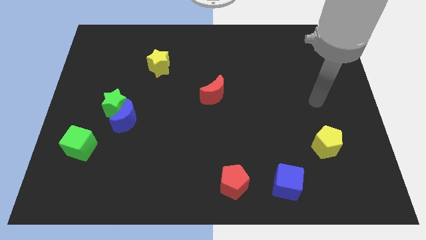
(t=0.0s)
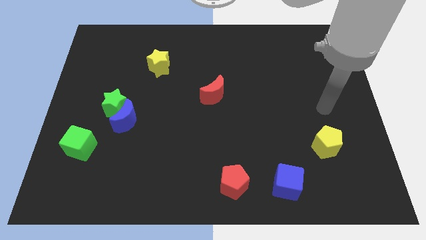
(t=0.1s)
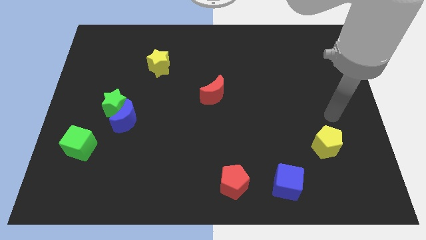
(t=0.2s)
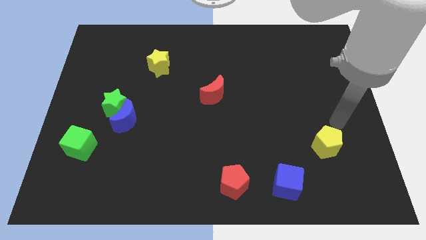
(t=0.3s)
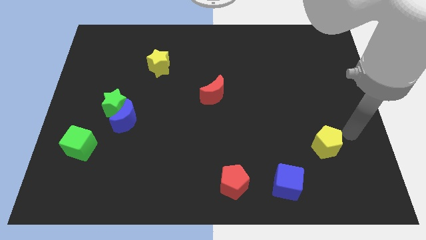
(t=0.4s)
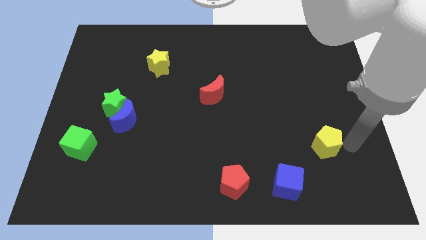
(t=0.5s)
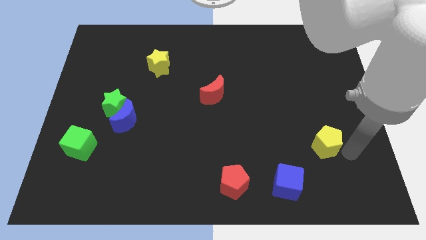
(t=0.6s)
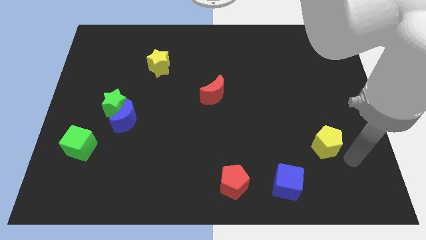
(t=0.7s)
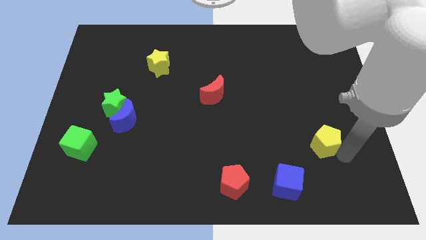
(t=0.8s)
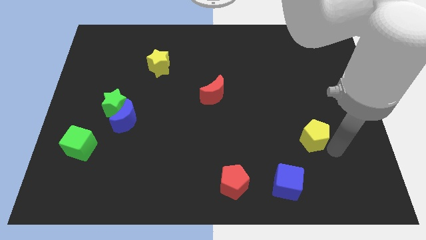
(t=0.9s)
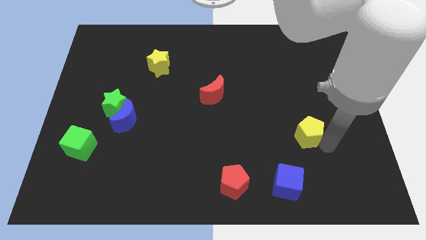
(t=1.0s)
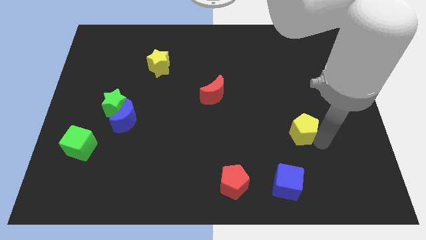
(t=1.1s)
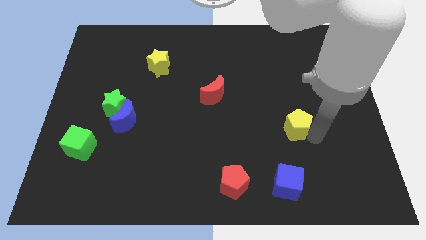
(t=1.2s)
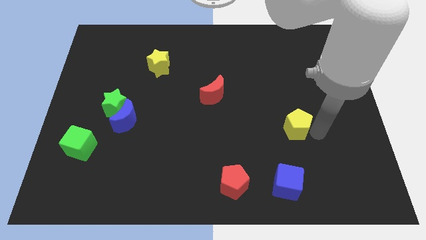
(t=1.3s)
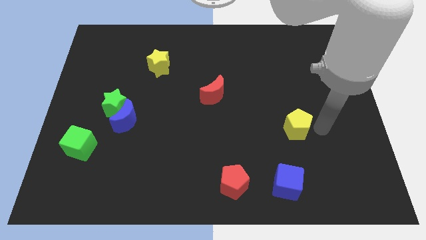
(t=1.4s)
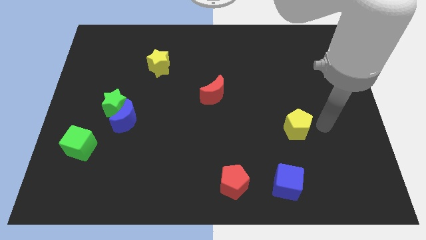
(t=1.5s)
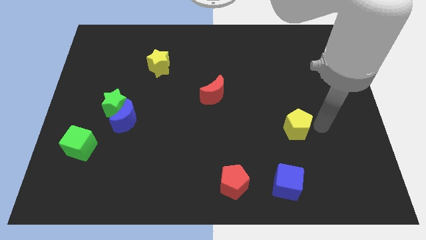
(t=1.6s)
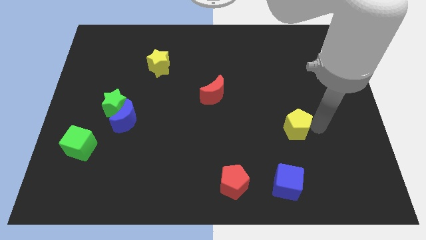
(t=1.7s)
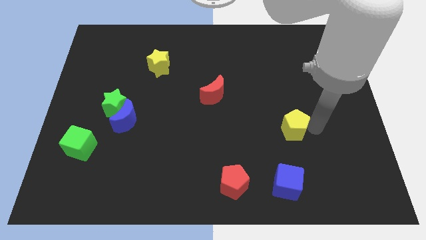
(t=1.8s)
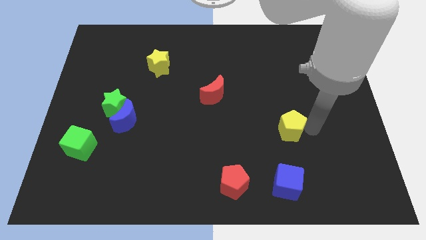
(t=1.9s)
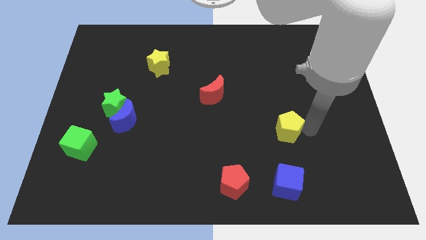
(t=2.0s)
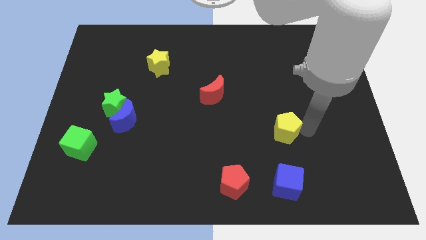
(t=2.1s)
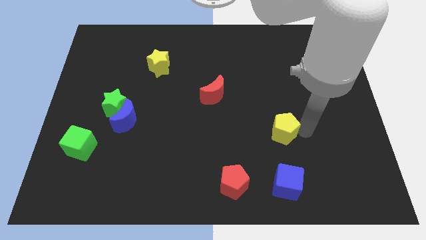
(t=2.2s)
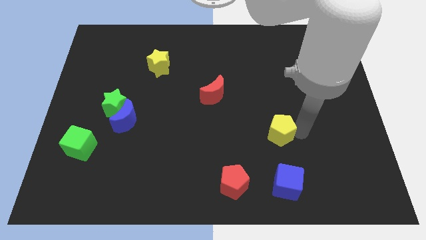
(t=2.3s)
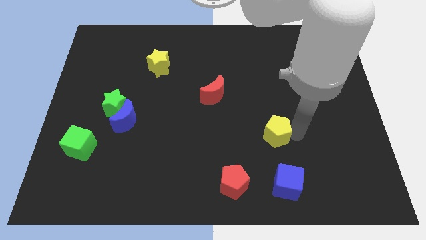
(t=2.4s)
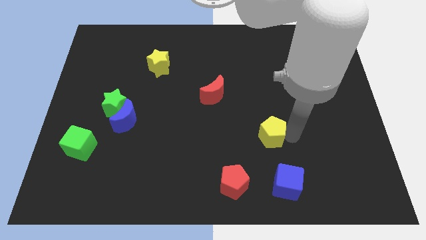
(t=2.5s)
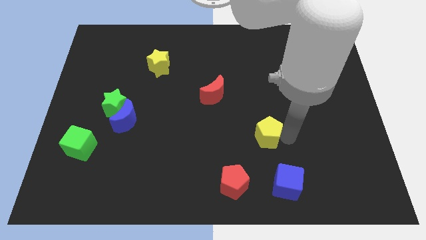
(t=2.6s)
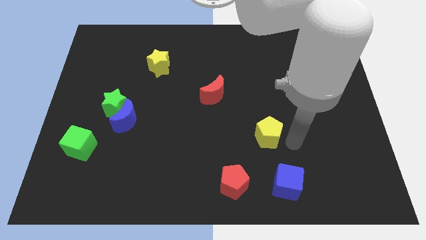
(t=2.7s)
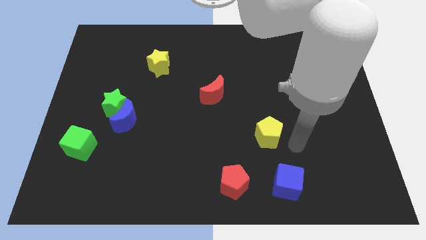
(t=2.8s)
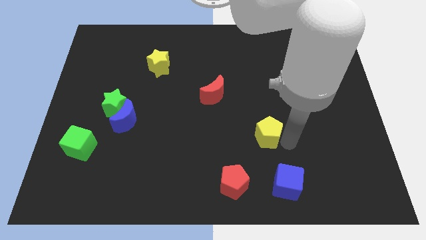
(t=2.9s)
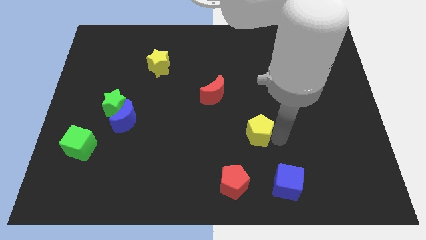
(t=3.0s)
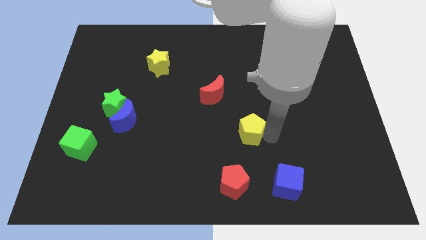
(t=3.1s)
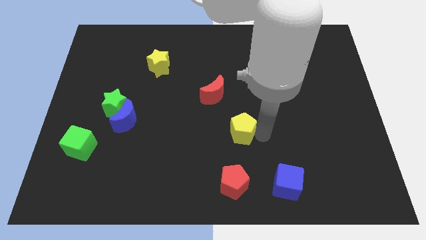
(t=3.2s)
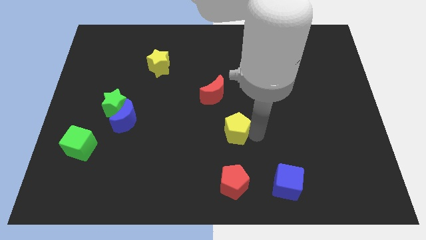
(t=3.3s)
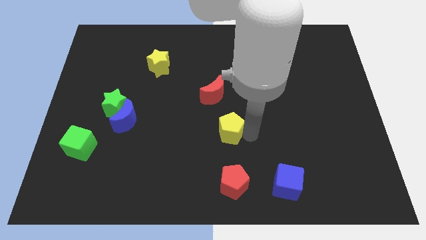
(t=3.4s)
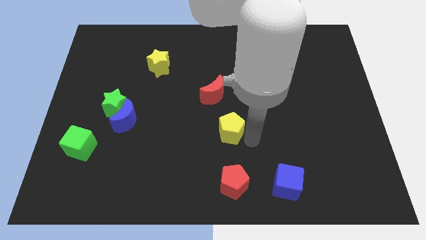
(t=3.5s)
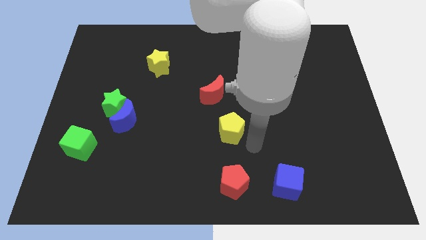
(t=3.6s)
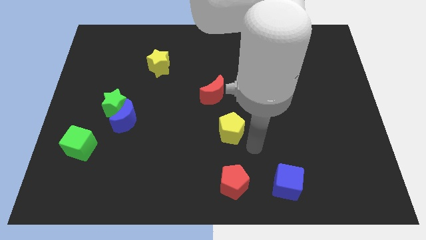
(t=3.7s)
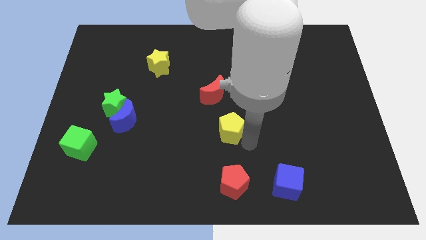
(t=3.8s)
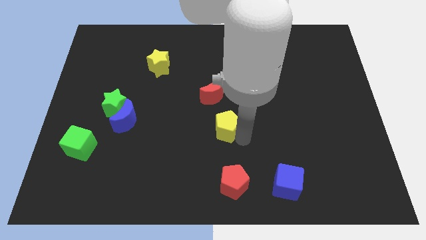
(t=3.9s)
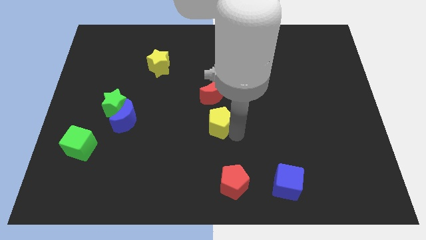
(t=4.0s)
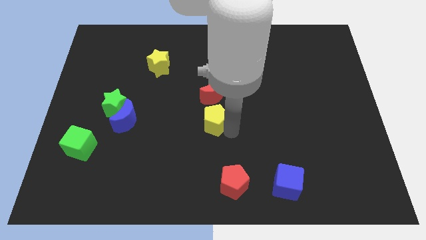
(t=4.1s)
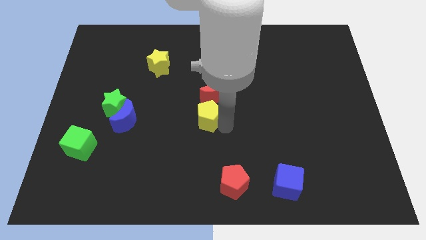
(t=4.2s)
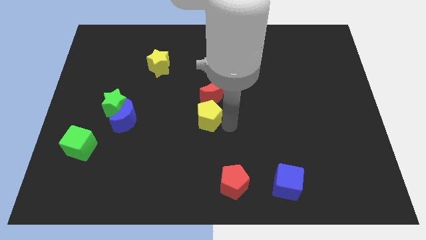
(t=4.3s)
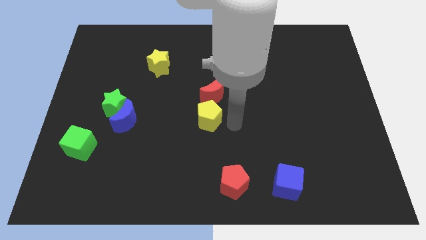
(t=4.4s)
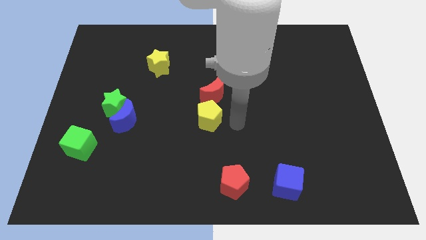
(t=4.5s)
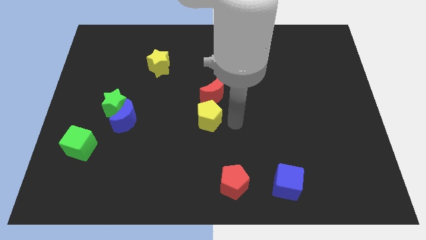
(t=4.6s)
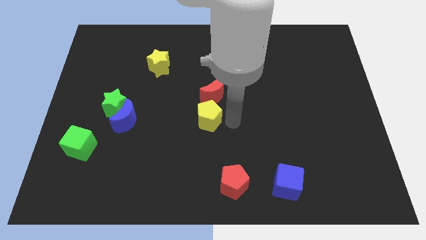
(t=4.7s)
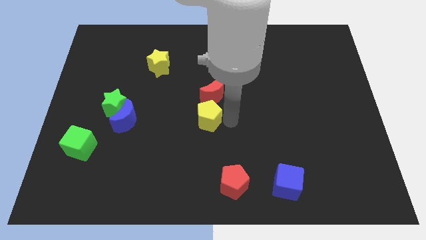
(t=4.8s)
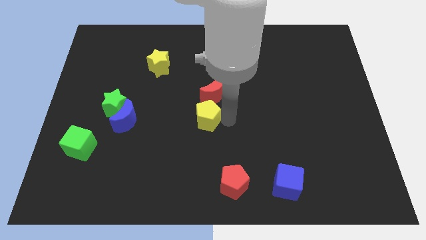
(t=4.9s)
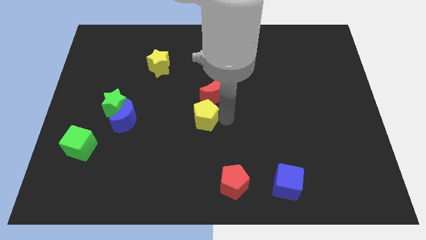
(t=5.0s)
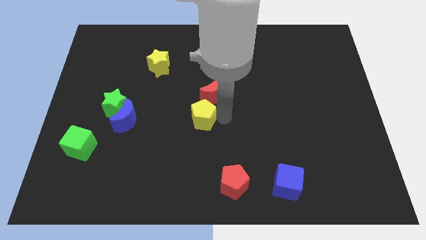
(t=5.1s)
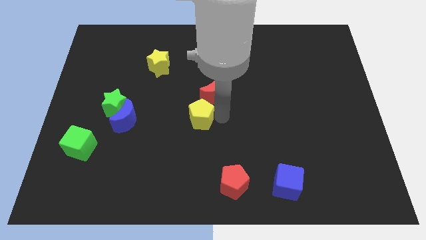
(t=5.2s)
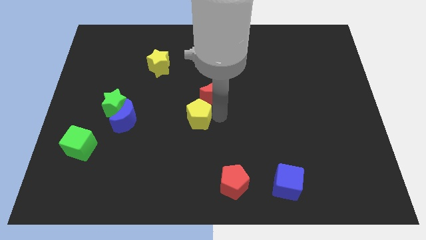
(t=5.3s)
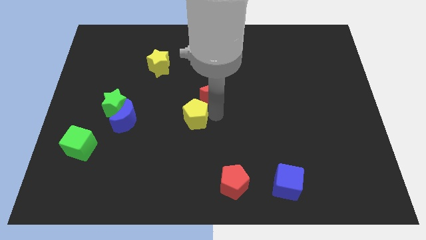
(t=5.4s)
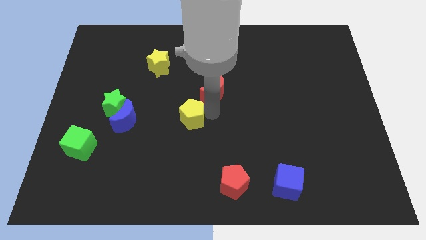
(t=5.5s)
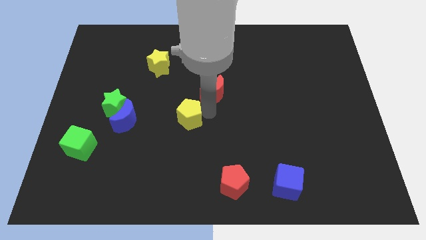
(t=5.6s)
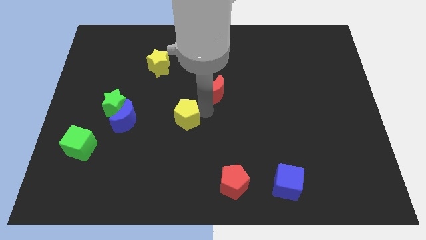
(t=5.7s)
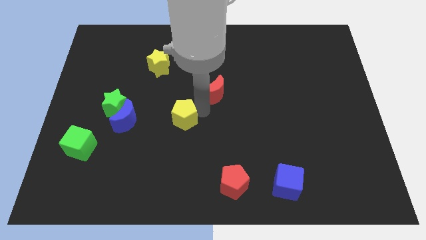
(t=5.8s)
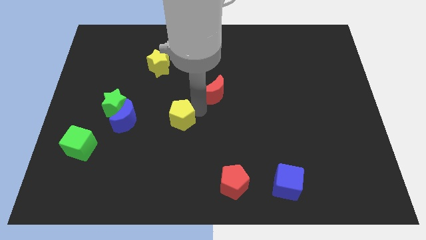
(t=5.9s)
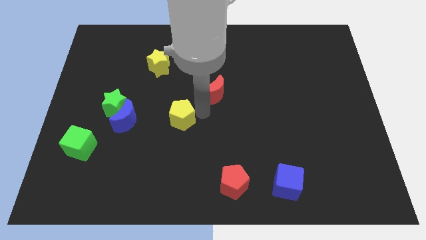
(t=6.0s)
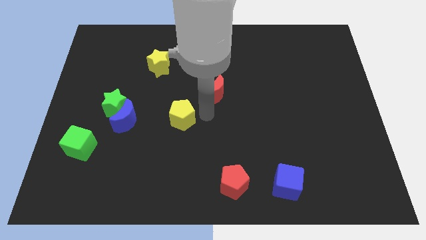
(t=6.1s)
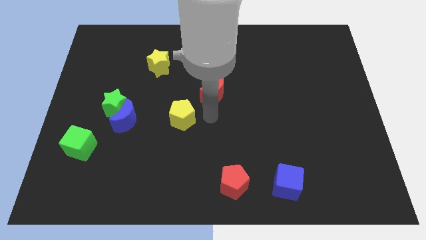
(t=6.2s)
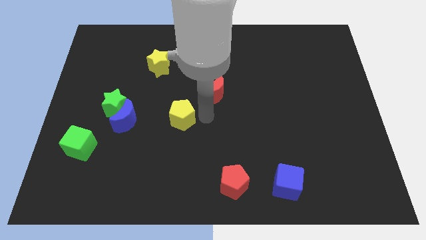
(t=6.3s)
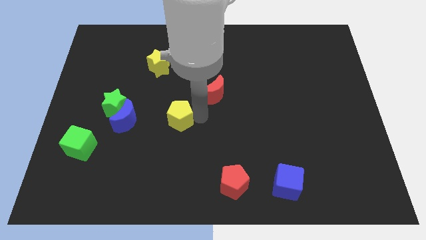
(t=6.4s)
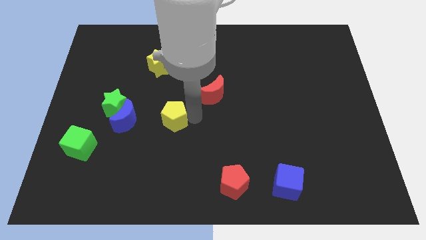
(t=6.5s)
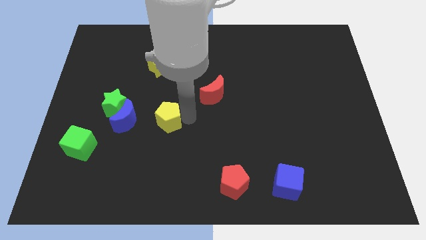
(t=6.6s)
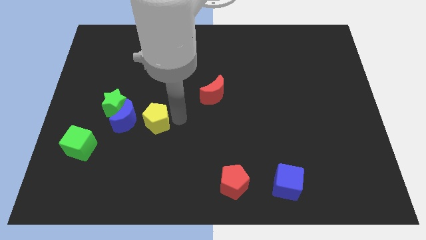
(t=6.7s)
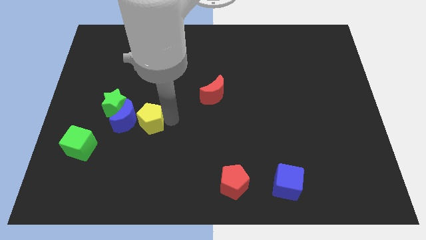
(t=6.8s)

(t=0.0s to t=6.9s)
move the yellow pentagon to the blue moon
